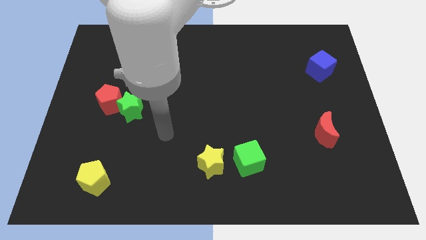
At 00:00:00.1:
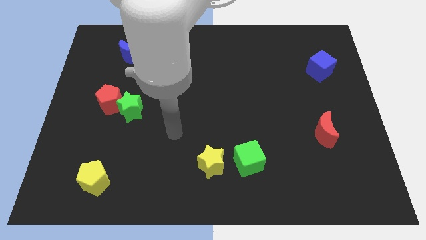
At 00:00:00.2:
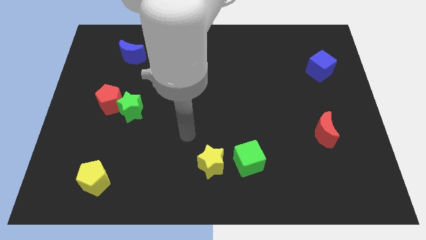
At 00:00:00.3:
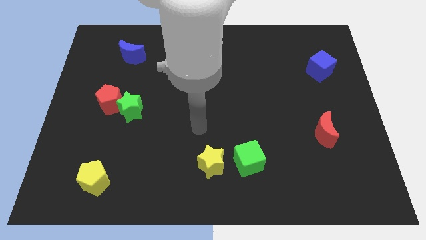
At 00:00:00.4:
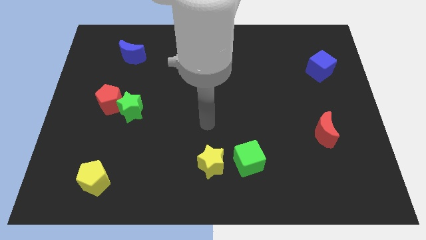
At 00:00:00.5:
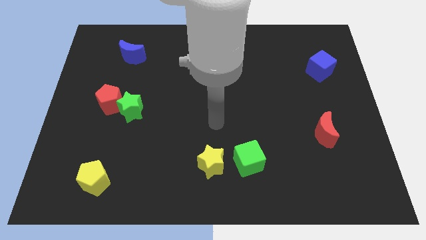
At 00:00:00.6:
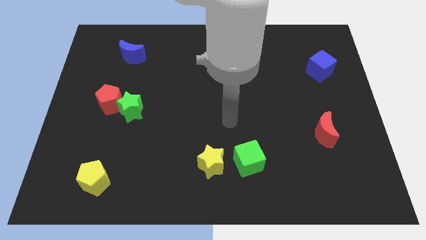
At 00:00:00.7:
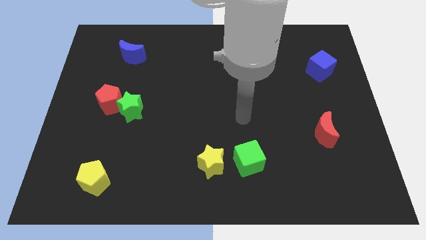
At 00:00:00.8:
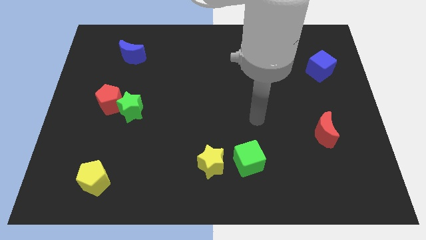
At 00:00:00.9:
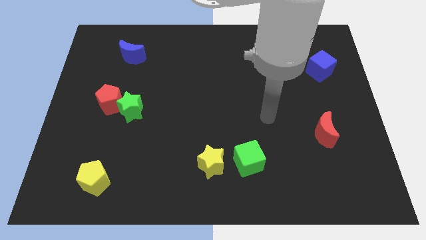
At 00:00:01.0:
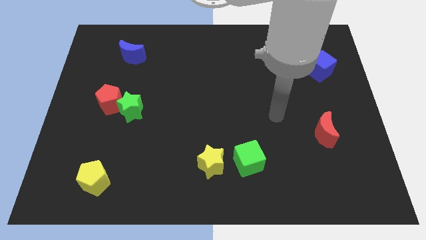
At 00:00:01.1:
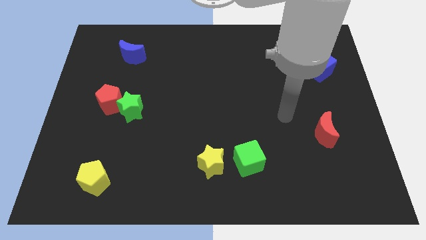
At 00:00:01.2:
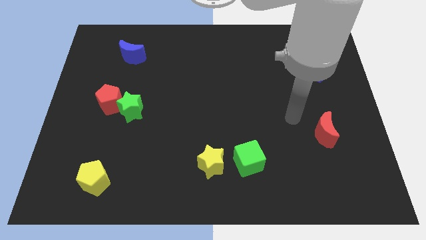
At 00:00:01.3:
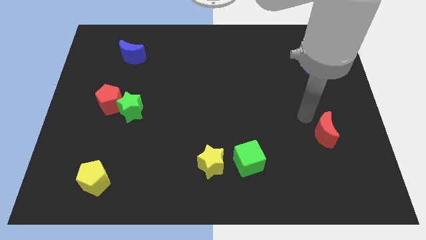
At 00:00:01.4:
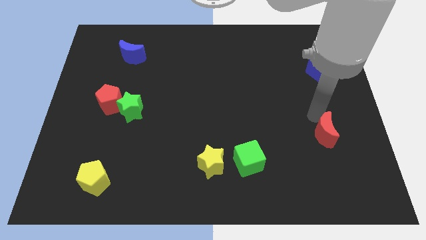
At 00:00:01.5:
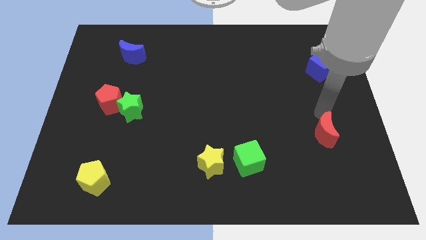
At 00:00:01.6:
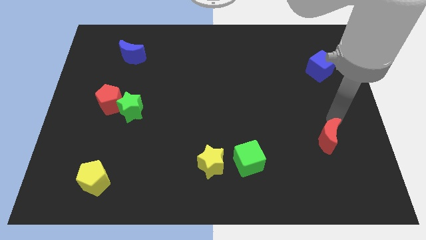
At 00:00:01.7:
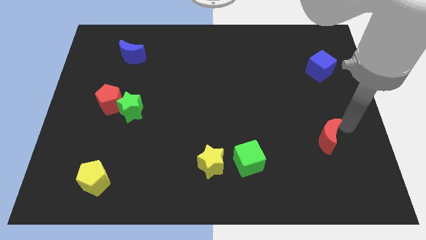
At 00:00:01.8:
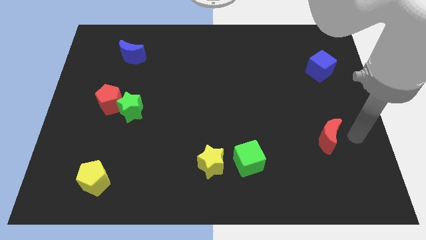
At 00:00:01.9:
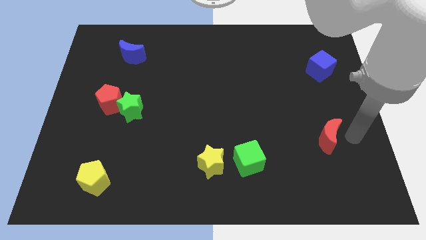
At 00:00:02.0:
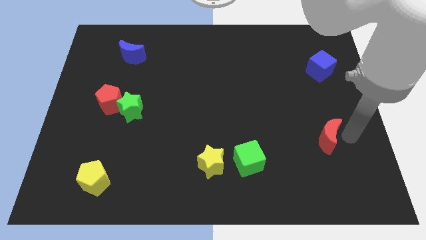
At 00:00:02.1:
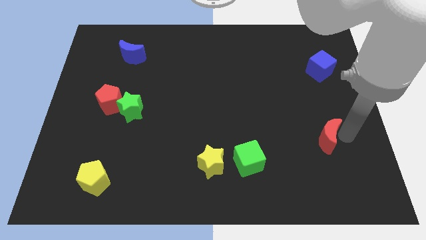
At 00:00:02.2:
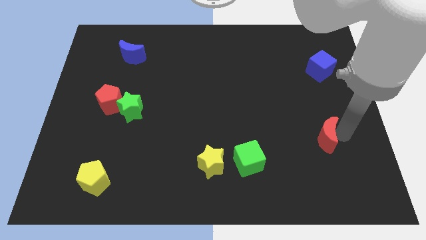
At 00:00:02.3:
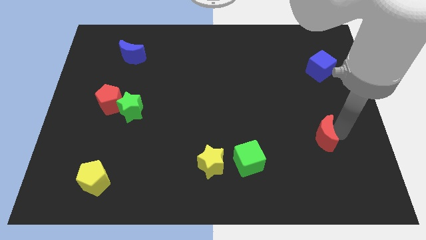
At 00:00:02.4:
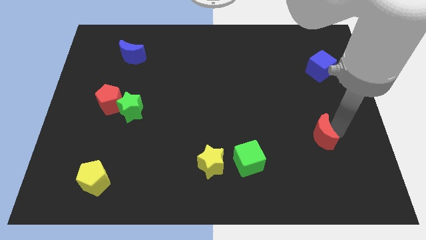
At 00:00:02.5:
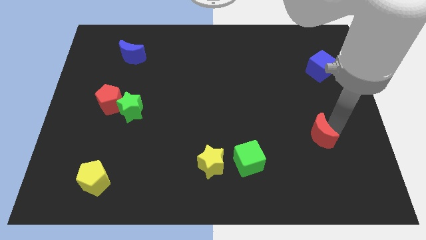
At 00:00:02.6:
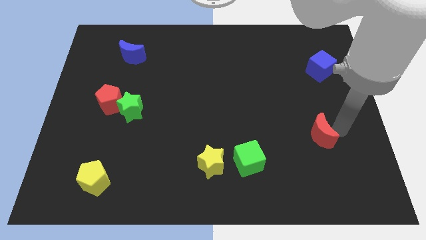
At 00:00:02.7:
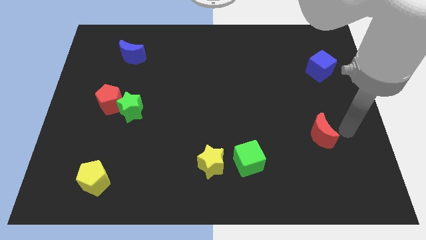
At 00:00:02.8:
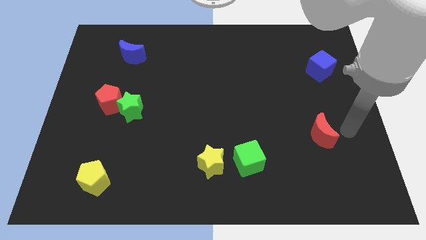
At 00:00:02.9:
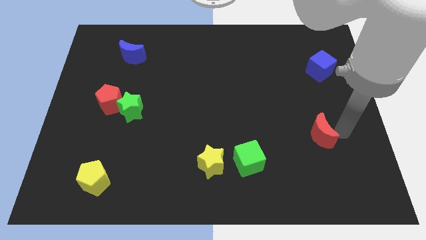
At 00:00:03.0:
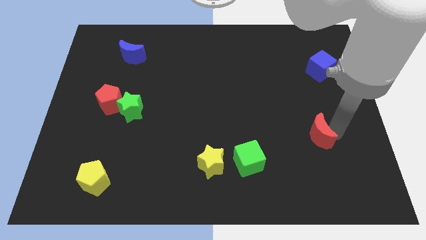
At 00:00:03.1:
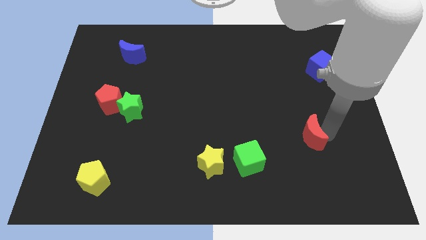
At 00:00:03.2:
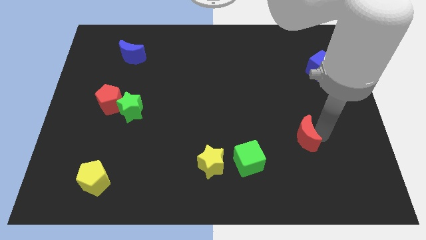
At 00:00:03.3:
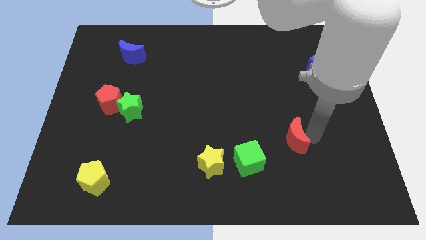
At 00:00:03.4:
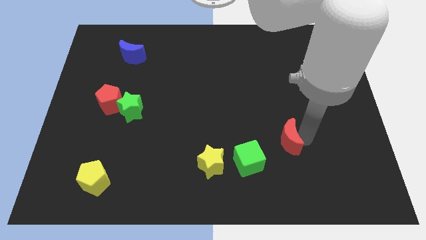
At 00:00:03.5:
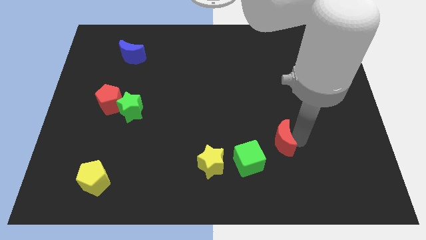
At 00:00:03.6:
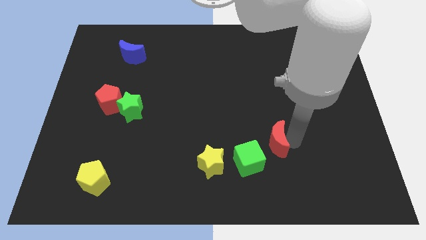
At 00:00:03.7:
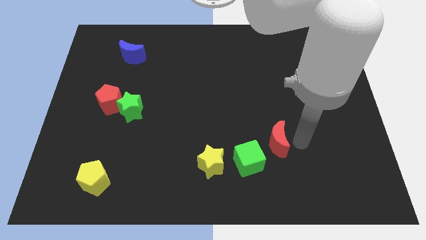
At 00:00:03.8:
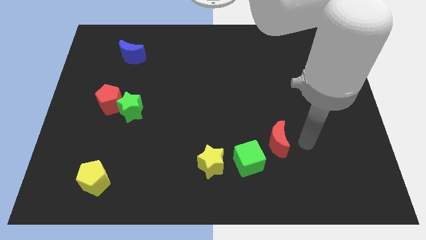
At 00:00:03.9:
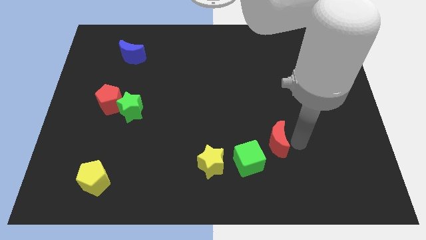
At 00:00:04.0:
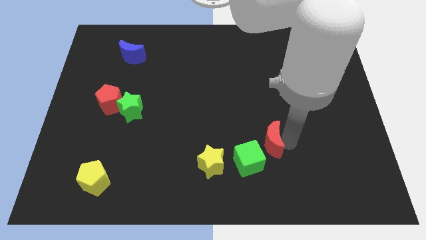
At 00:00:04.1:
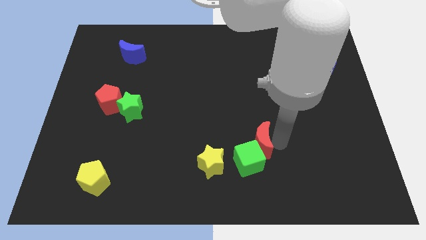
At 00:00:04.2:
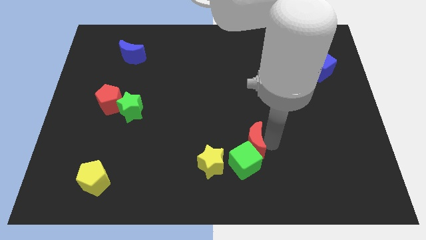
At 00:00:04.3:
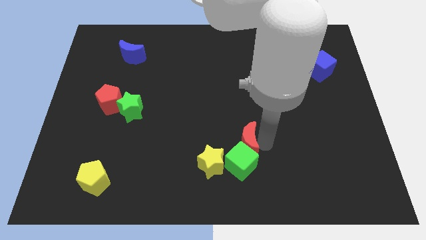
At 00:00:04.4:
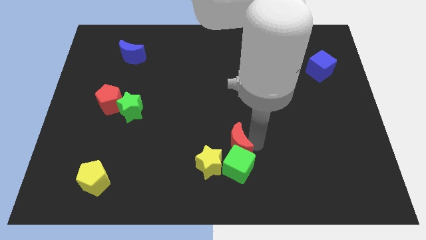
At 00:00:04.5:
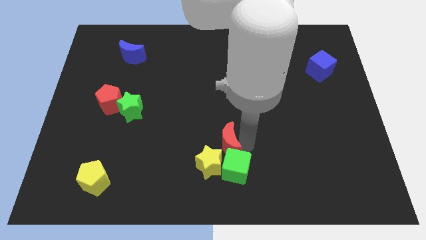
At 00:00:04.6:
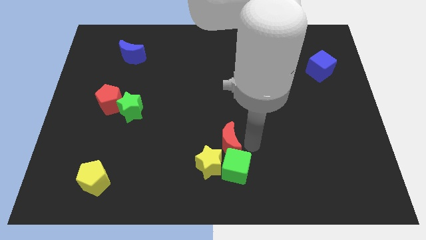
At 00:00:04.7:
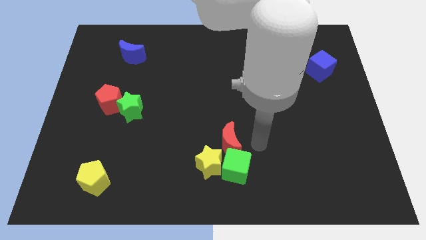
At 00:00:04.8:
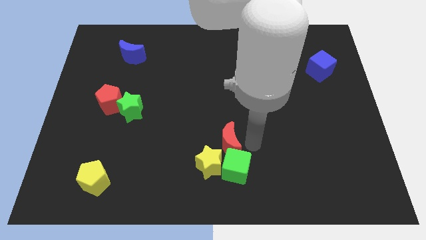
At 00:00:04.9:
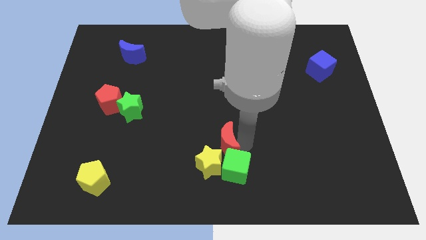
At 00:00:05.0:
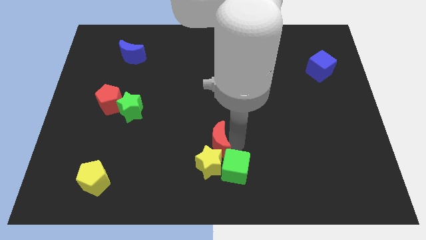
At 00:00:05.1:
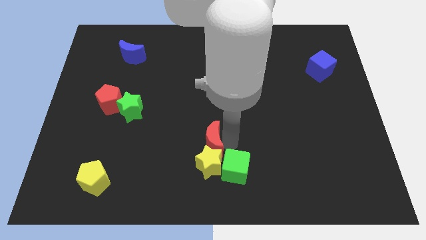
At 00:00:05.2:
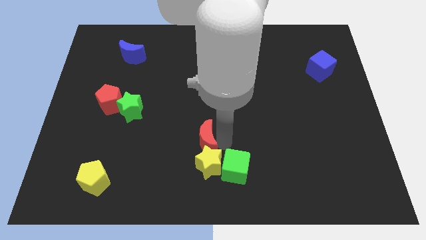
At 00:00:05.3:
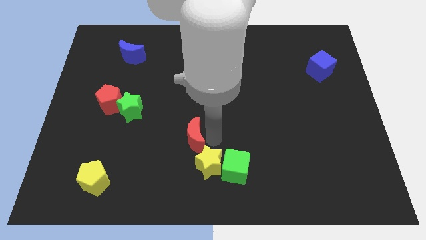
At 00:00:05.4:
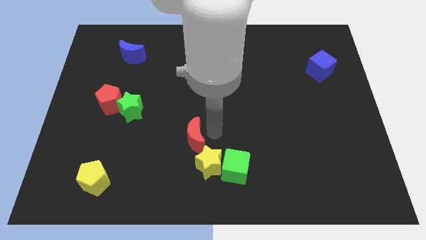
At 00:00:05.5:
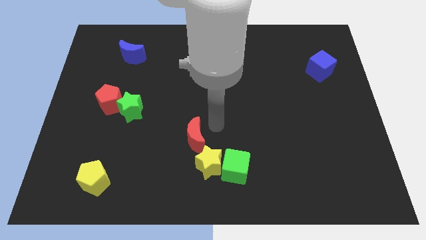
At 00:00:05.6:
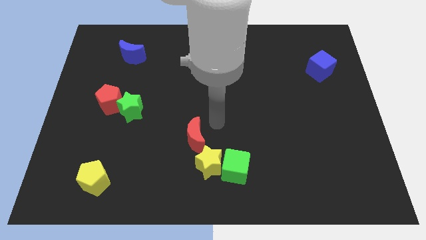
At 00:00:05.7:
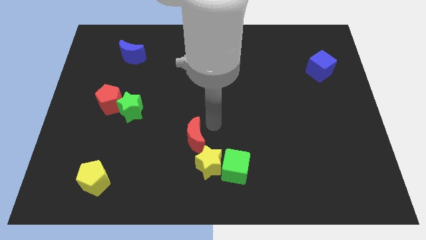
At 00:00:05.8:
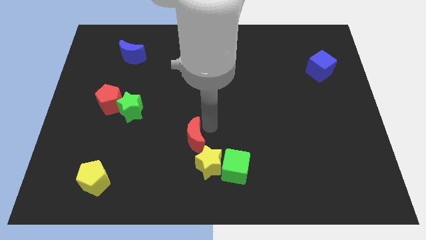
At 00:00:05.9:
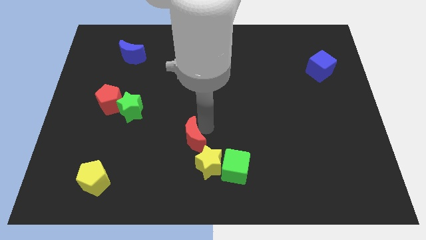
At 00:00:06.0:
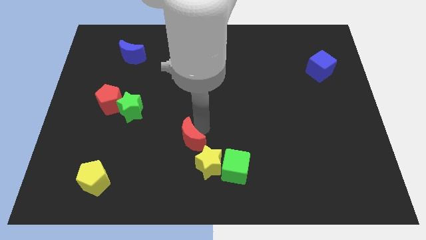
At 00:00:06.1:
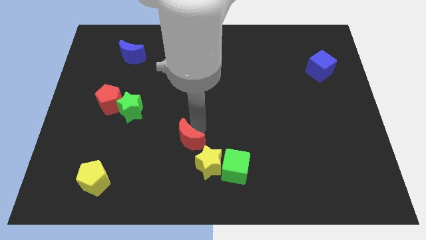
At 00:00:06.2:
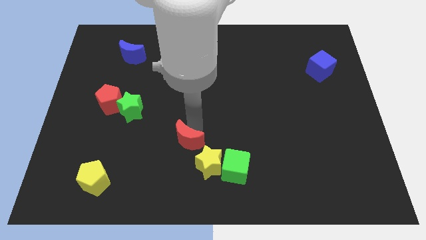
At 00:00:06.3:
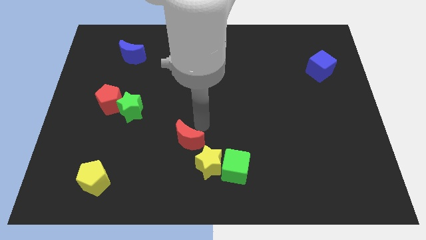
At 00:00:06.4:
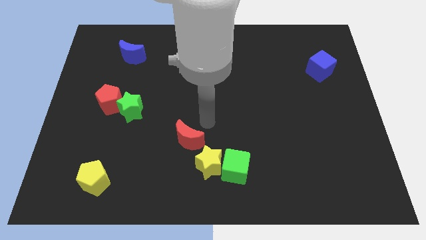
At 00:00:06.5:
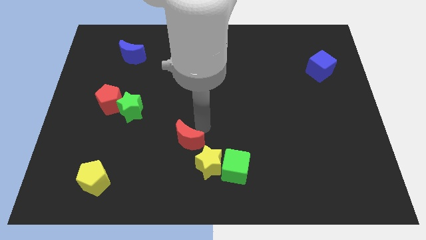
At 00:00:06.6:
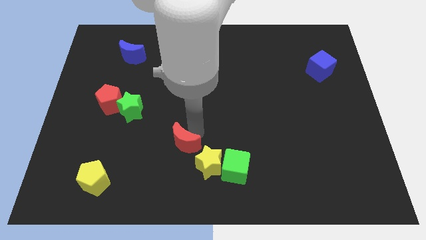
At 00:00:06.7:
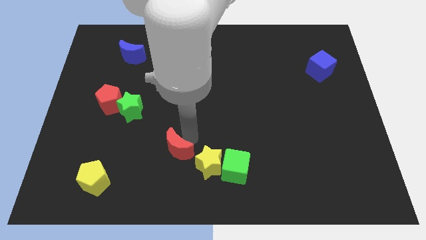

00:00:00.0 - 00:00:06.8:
slide the red moon to the left side of the yellow star
